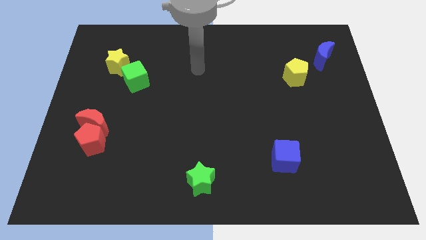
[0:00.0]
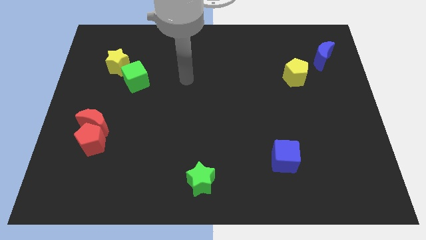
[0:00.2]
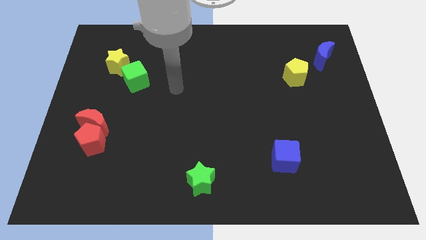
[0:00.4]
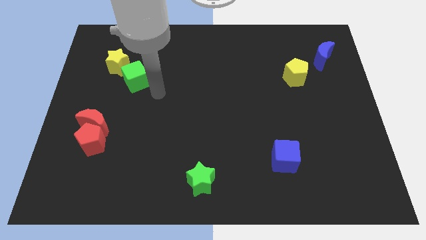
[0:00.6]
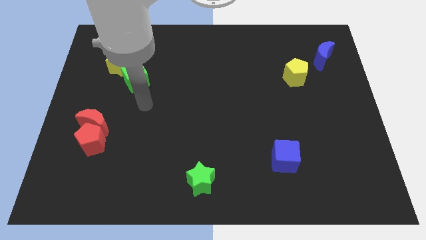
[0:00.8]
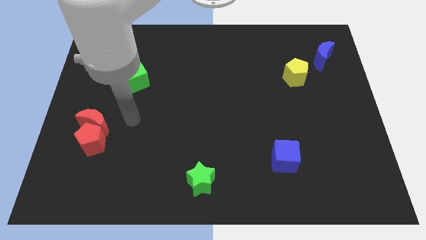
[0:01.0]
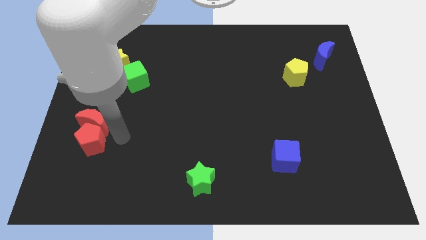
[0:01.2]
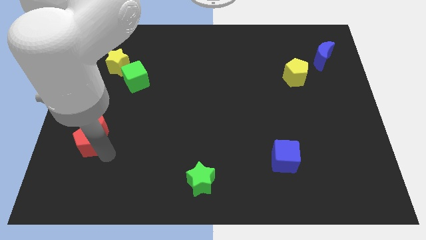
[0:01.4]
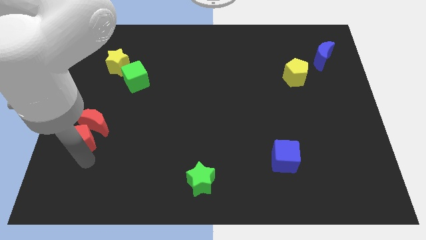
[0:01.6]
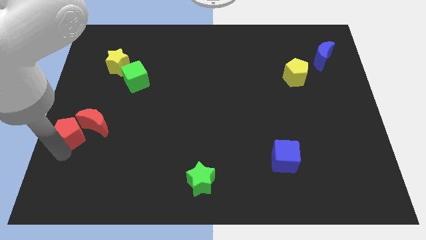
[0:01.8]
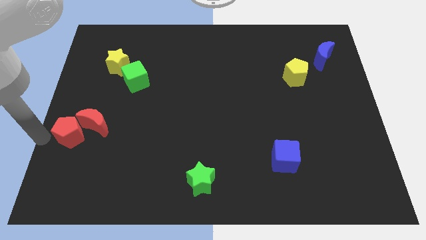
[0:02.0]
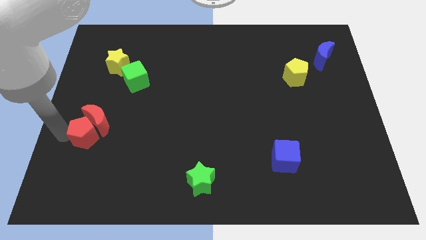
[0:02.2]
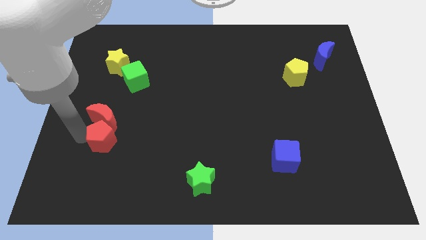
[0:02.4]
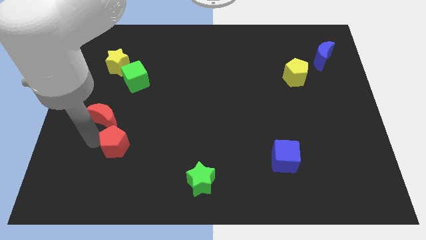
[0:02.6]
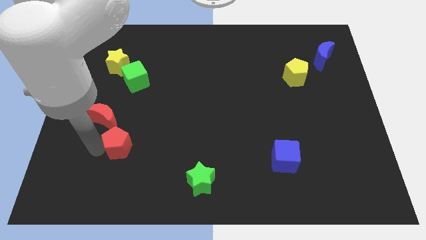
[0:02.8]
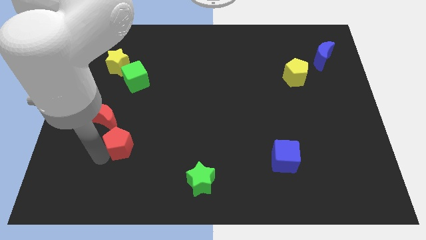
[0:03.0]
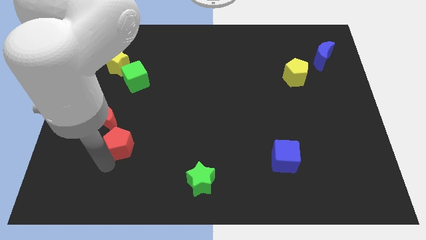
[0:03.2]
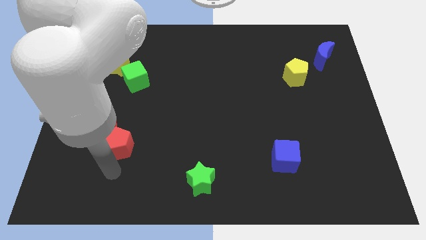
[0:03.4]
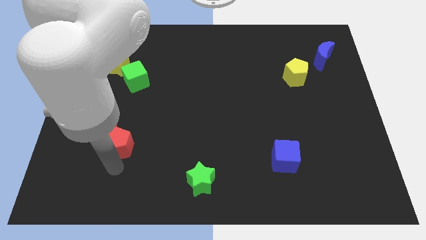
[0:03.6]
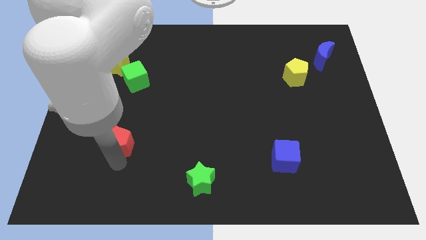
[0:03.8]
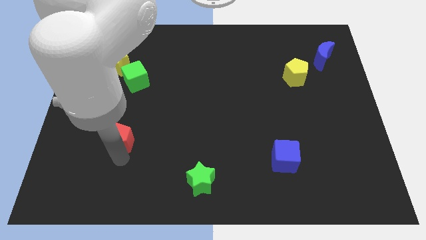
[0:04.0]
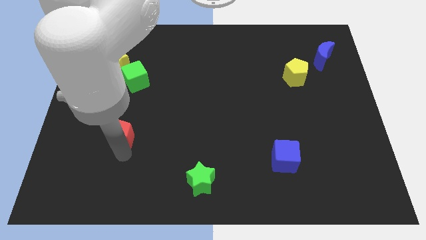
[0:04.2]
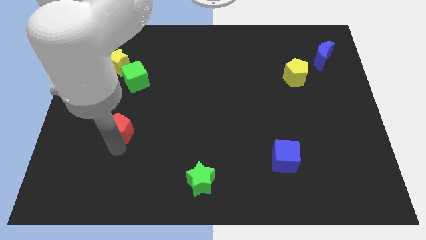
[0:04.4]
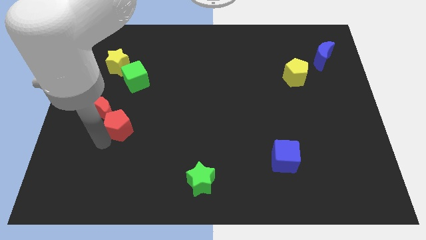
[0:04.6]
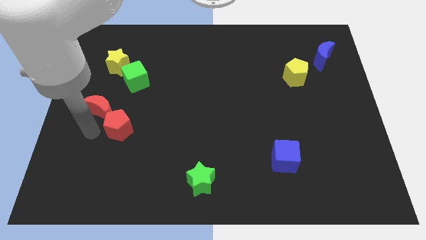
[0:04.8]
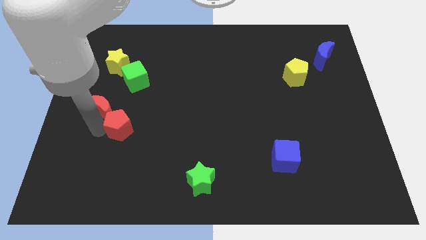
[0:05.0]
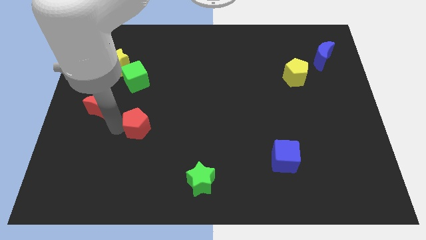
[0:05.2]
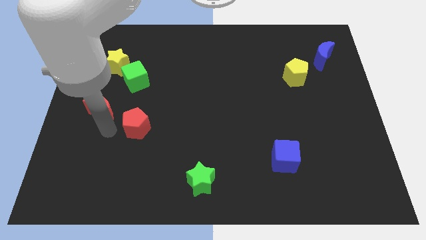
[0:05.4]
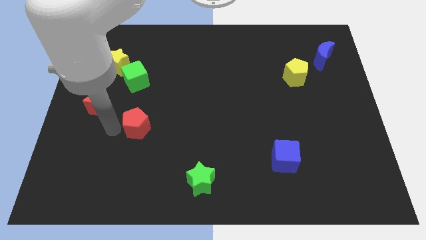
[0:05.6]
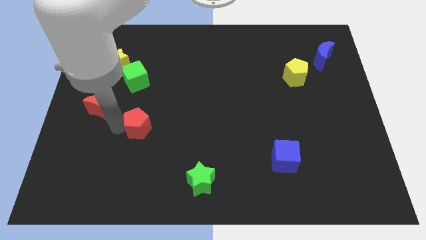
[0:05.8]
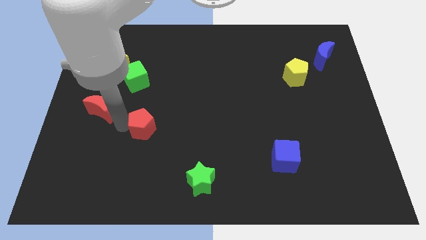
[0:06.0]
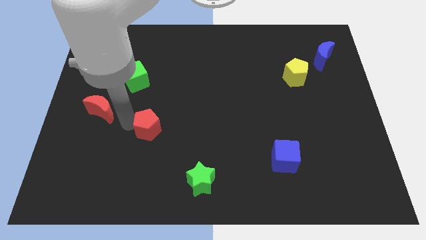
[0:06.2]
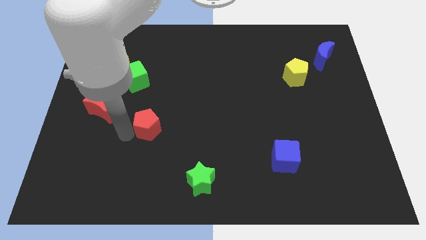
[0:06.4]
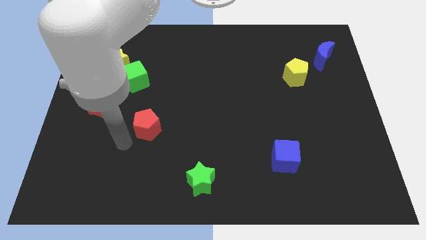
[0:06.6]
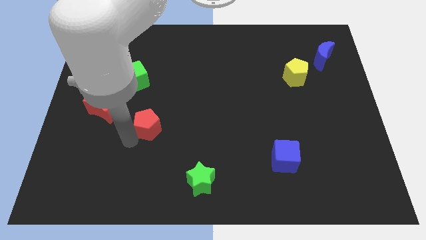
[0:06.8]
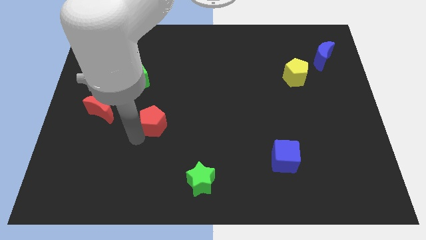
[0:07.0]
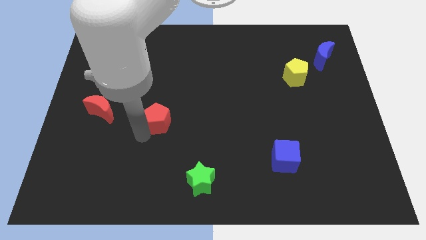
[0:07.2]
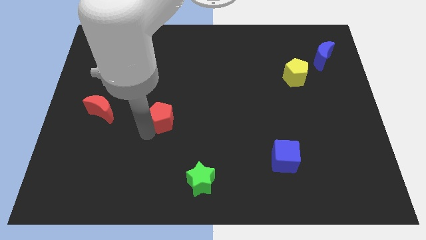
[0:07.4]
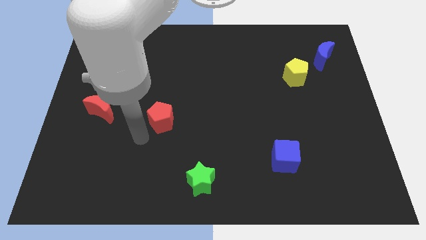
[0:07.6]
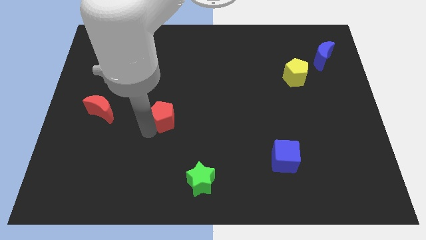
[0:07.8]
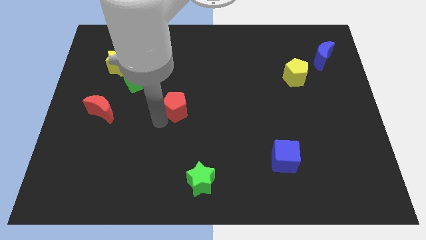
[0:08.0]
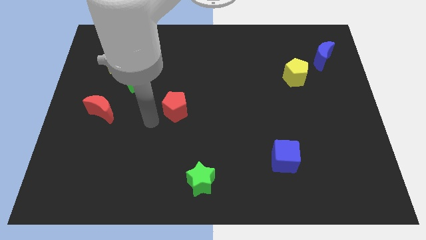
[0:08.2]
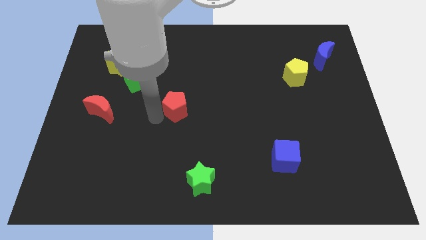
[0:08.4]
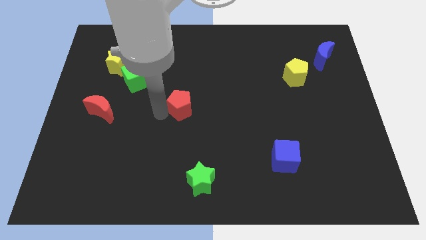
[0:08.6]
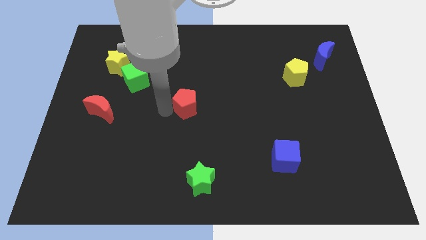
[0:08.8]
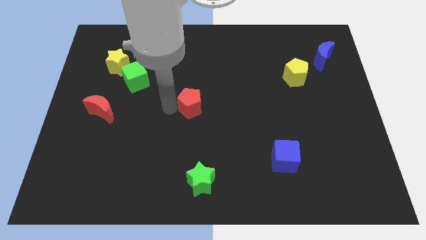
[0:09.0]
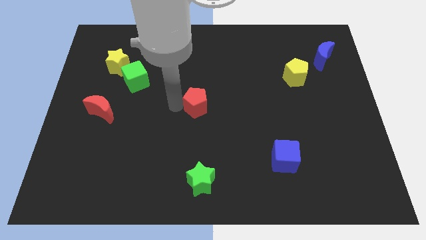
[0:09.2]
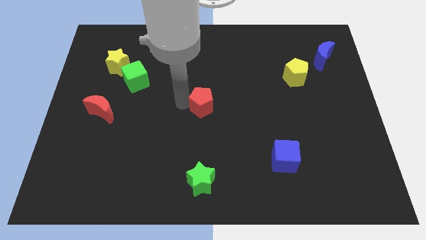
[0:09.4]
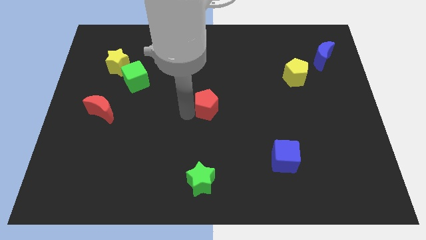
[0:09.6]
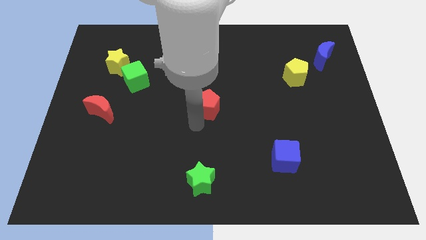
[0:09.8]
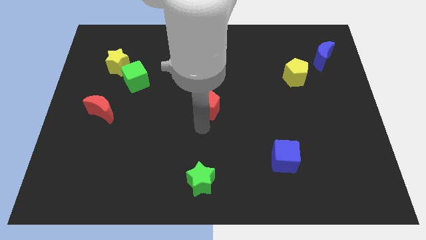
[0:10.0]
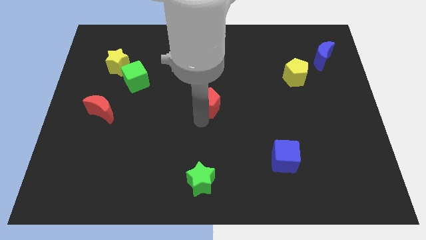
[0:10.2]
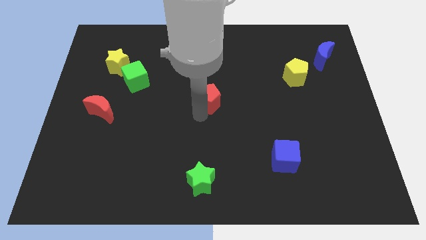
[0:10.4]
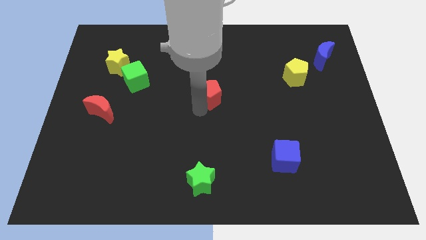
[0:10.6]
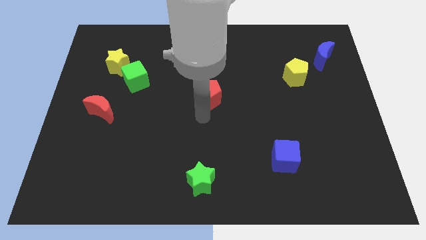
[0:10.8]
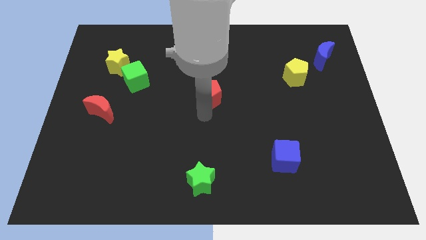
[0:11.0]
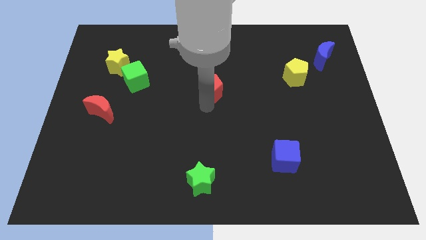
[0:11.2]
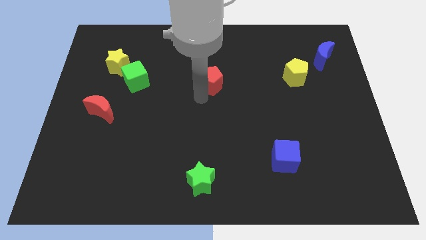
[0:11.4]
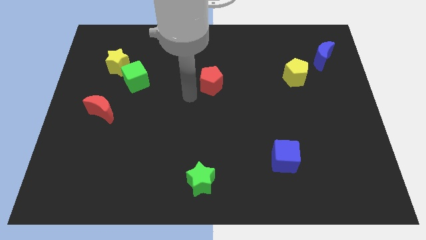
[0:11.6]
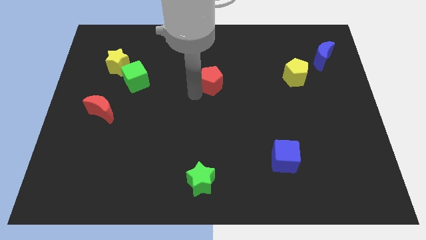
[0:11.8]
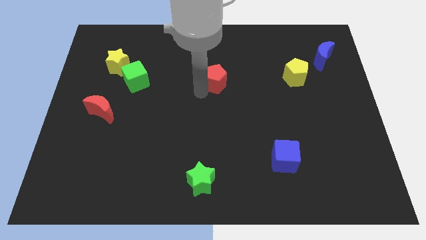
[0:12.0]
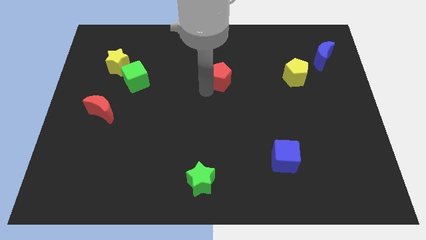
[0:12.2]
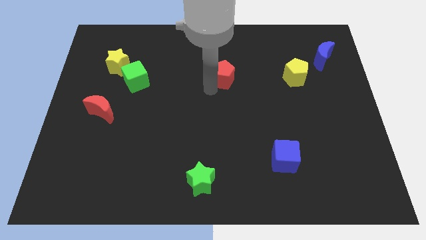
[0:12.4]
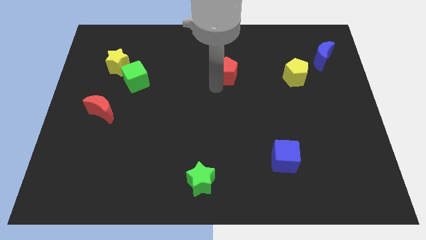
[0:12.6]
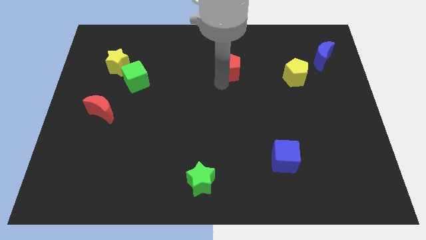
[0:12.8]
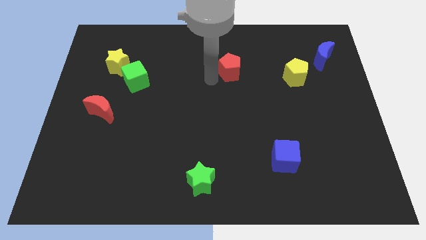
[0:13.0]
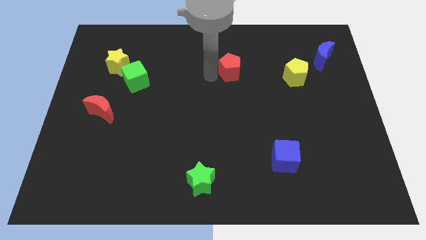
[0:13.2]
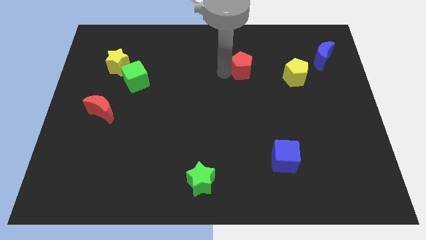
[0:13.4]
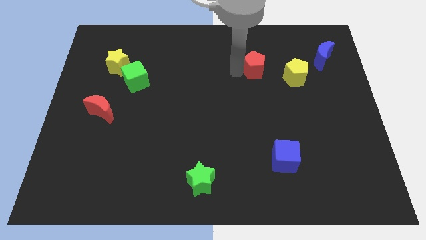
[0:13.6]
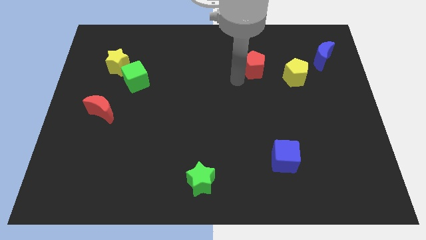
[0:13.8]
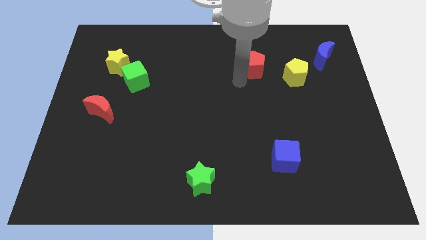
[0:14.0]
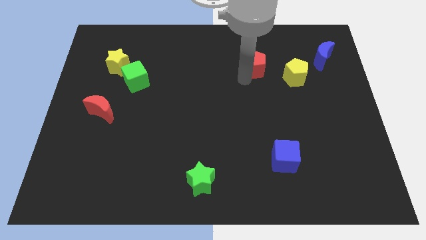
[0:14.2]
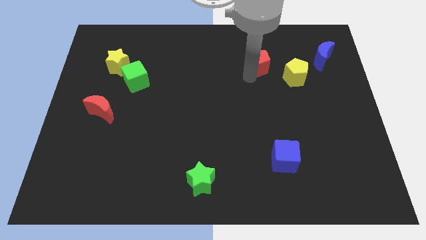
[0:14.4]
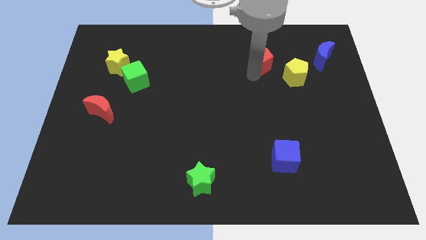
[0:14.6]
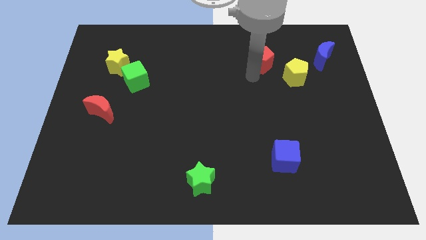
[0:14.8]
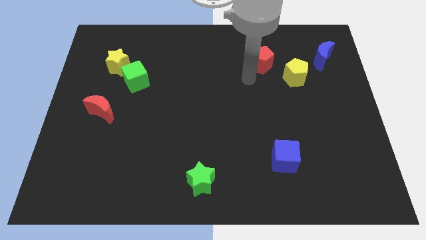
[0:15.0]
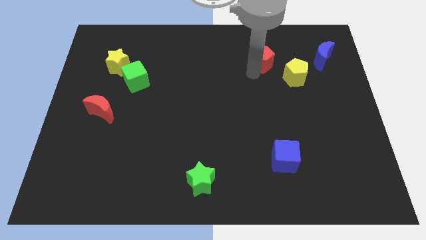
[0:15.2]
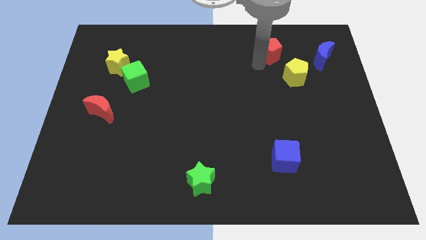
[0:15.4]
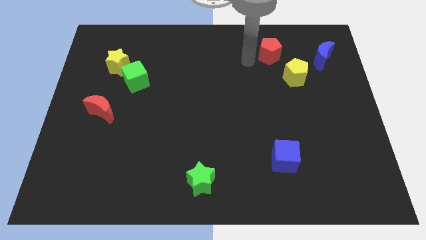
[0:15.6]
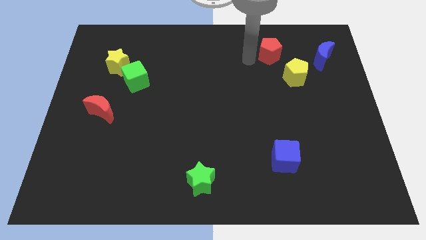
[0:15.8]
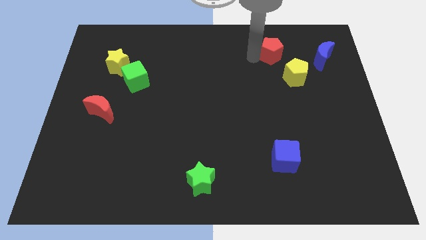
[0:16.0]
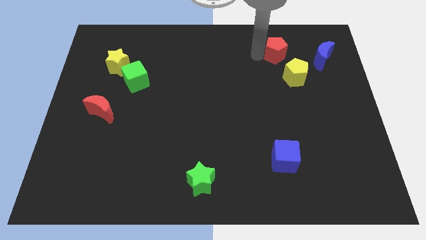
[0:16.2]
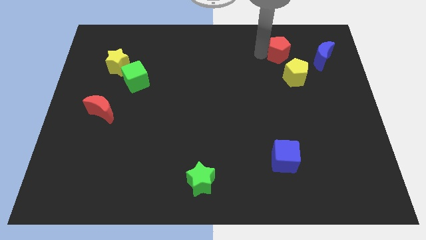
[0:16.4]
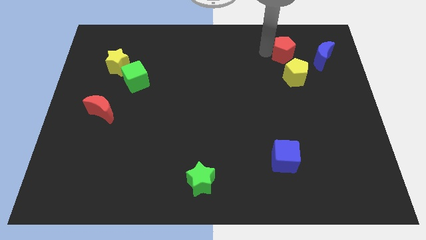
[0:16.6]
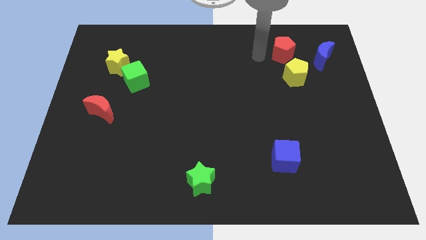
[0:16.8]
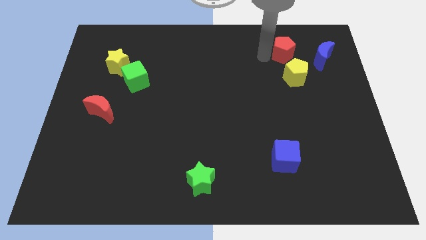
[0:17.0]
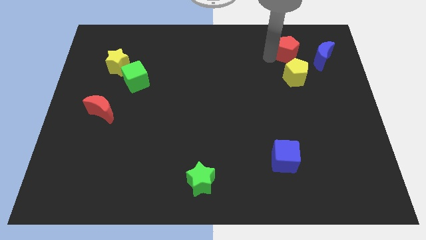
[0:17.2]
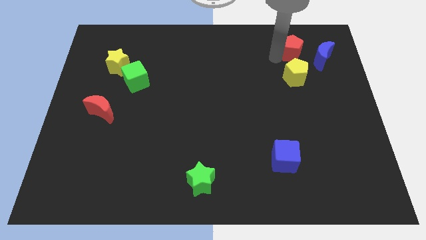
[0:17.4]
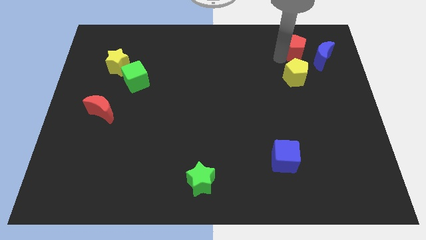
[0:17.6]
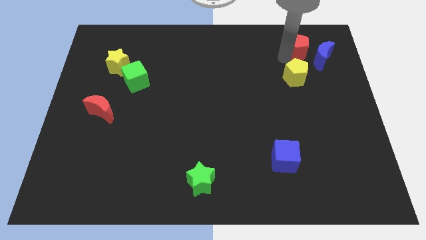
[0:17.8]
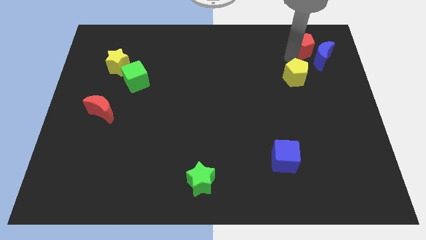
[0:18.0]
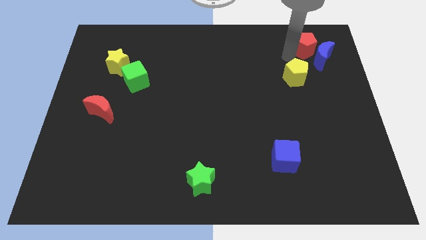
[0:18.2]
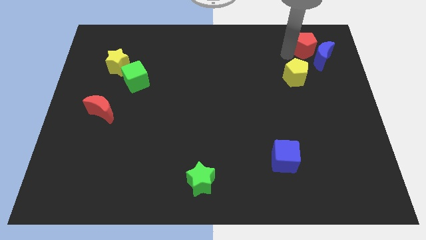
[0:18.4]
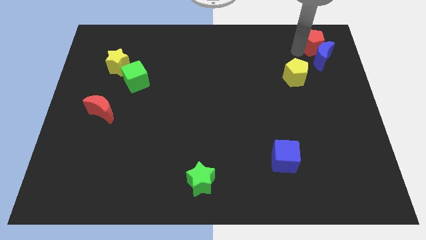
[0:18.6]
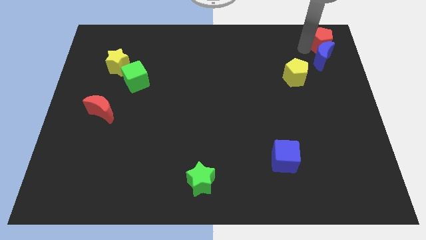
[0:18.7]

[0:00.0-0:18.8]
push the red pentagon to the top right of the board
